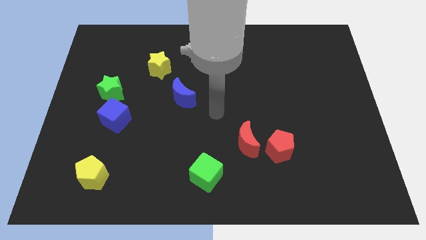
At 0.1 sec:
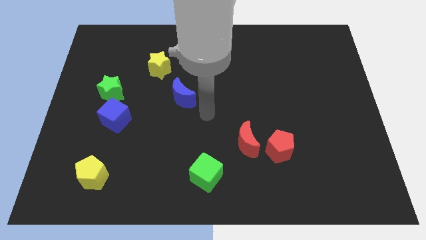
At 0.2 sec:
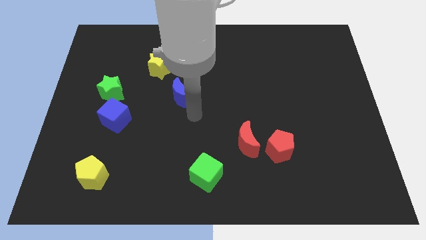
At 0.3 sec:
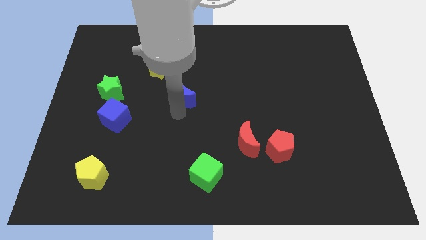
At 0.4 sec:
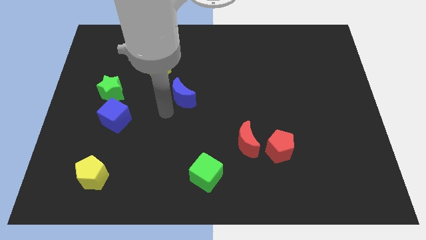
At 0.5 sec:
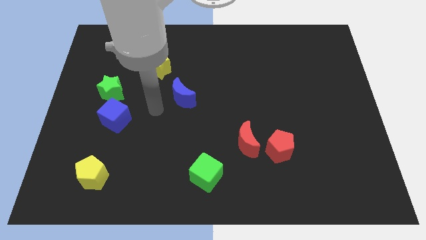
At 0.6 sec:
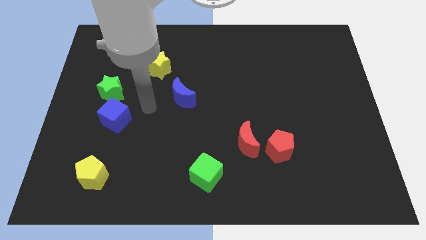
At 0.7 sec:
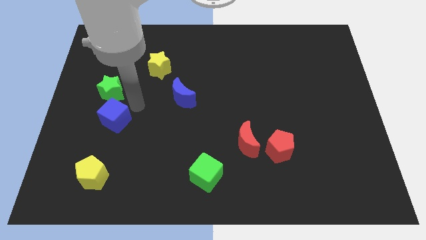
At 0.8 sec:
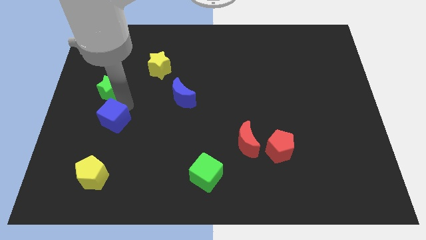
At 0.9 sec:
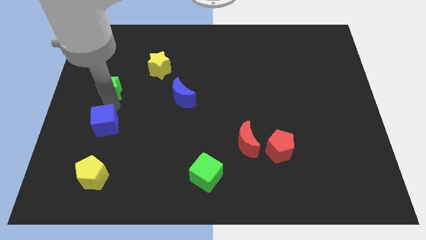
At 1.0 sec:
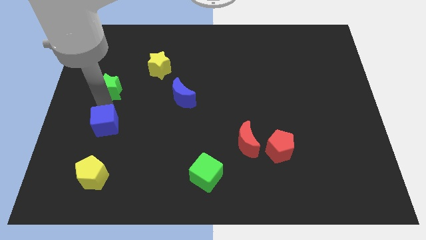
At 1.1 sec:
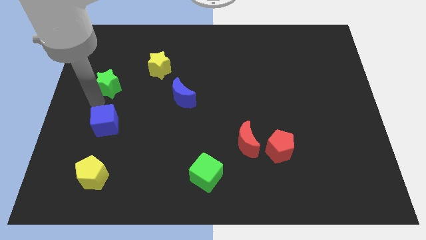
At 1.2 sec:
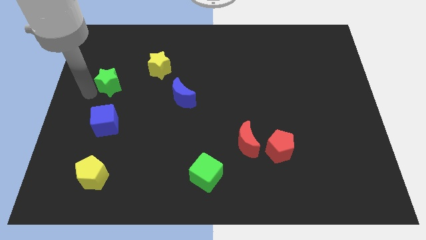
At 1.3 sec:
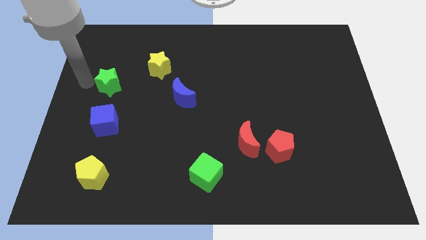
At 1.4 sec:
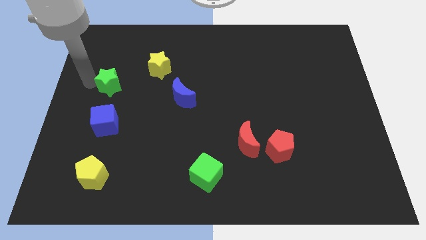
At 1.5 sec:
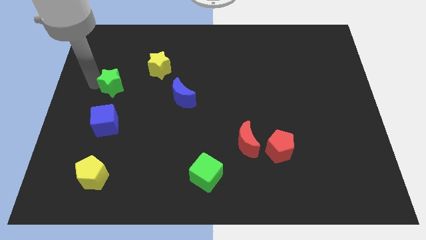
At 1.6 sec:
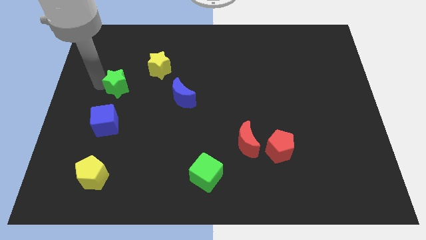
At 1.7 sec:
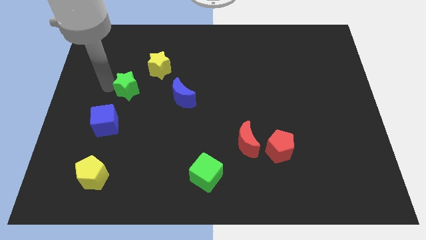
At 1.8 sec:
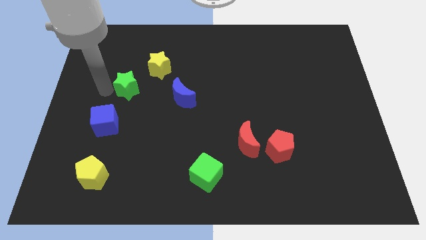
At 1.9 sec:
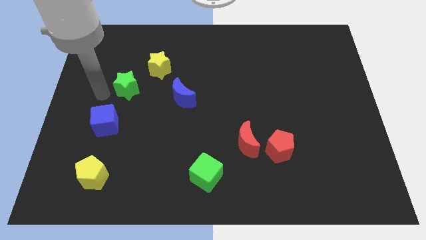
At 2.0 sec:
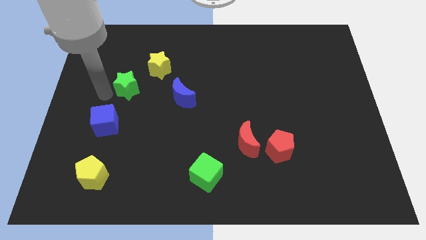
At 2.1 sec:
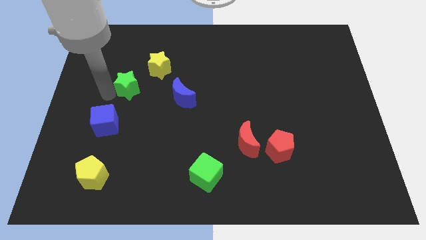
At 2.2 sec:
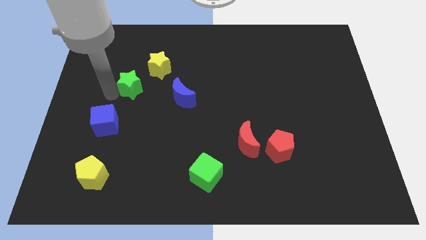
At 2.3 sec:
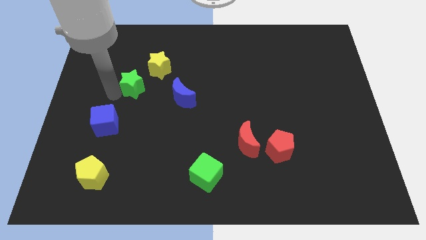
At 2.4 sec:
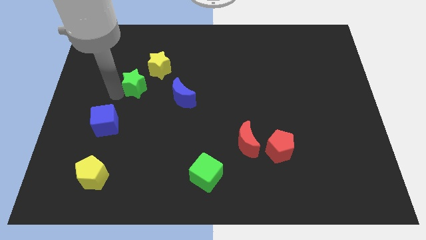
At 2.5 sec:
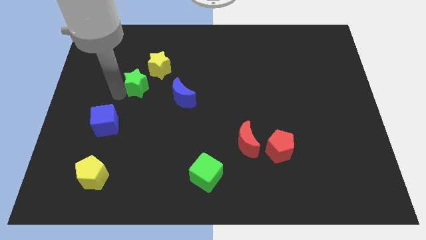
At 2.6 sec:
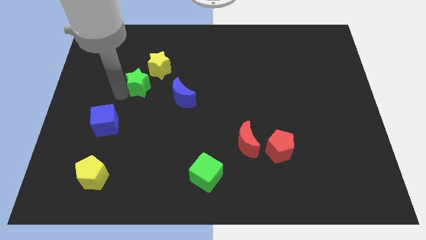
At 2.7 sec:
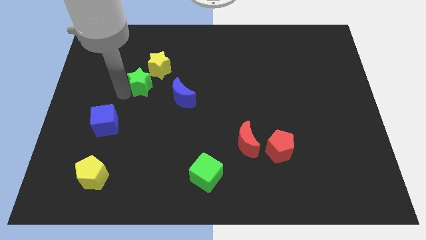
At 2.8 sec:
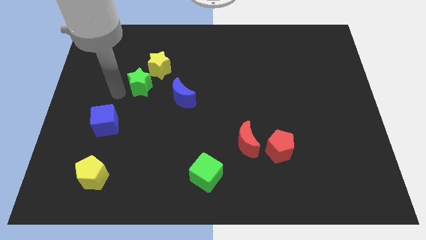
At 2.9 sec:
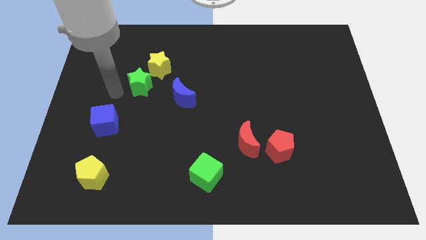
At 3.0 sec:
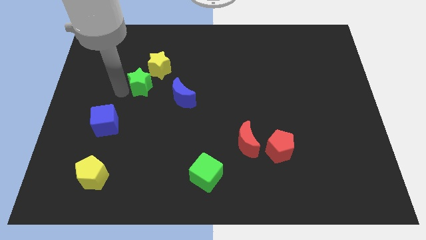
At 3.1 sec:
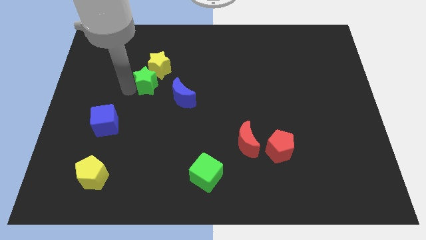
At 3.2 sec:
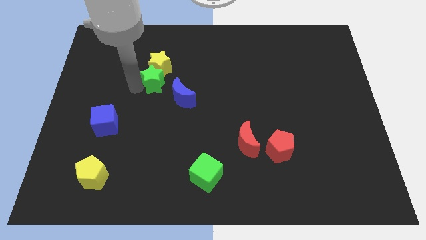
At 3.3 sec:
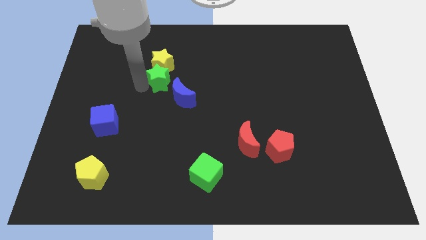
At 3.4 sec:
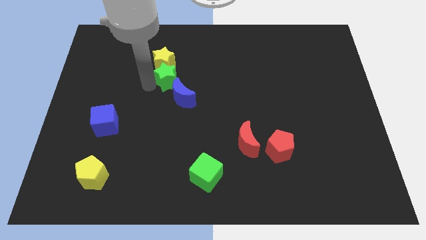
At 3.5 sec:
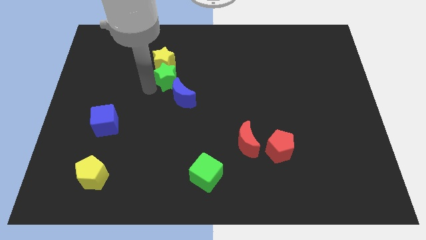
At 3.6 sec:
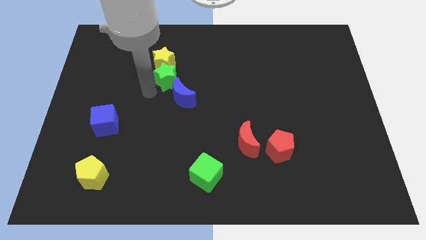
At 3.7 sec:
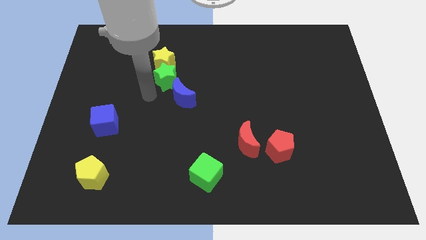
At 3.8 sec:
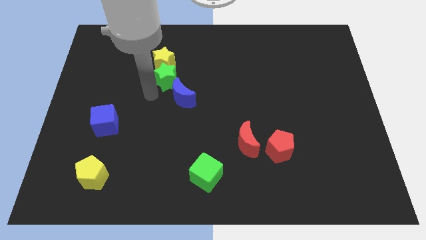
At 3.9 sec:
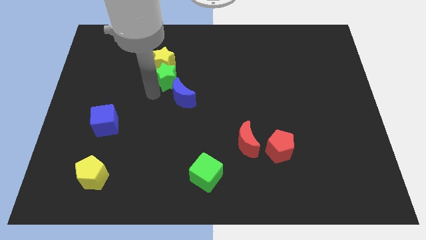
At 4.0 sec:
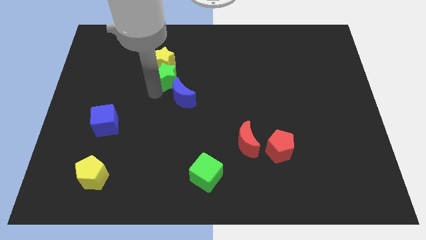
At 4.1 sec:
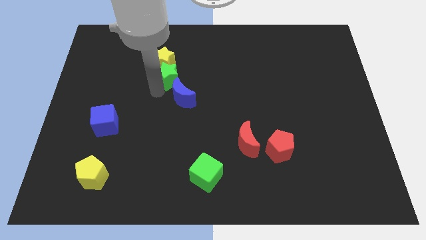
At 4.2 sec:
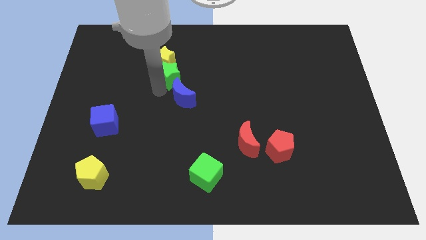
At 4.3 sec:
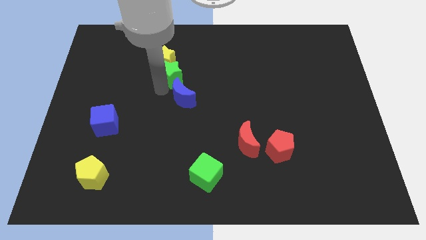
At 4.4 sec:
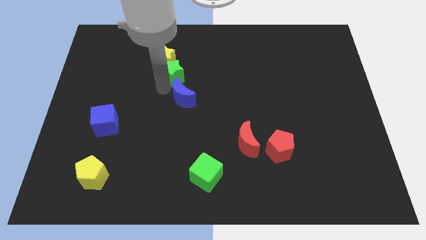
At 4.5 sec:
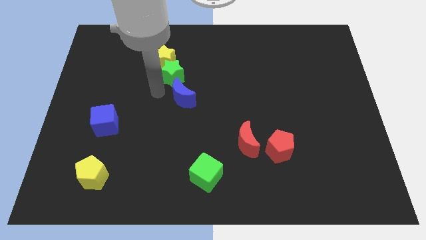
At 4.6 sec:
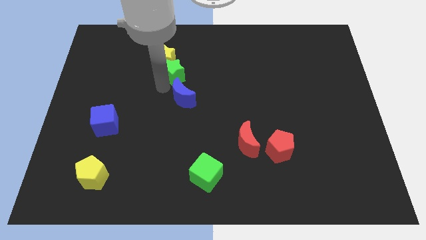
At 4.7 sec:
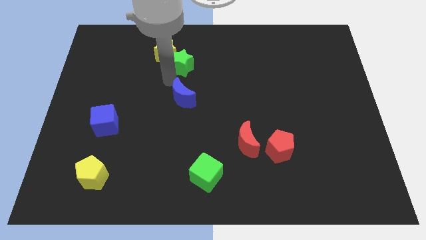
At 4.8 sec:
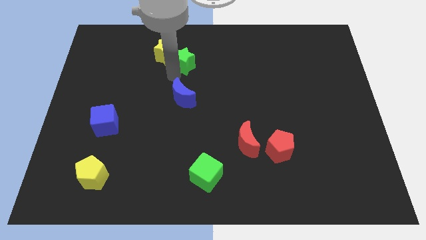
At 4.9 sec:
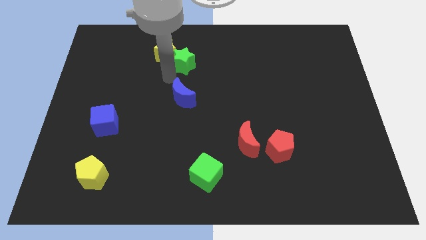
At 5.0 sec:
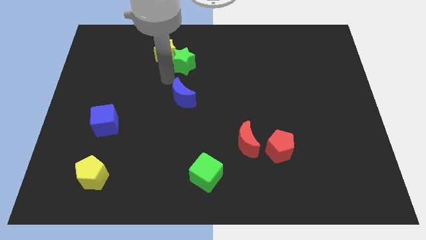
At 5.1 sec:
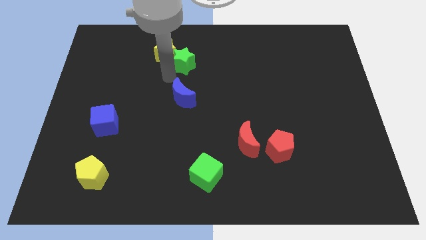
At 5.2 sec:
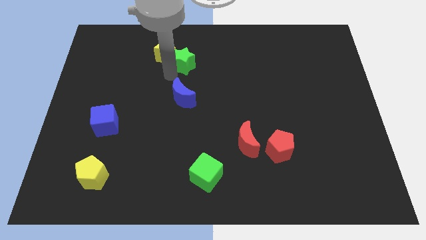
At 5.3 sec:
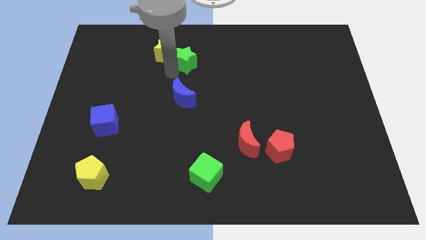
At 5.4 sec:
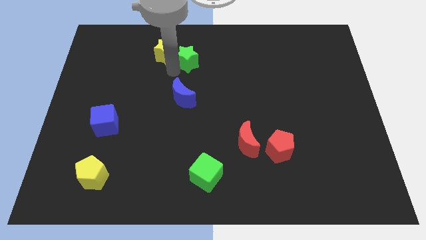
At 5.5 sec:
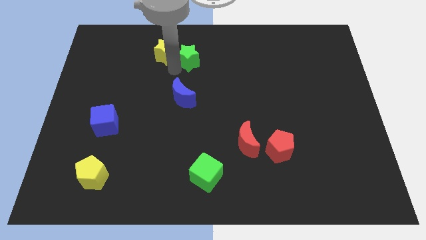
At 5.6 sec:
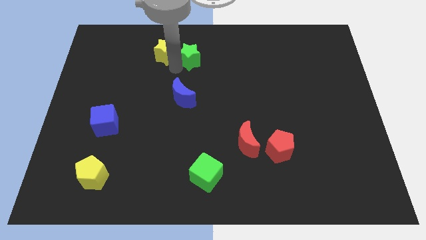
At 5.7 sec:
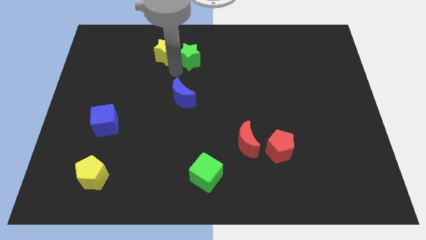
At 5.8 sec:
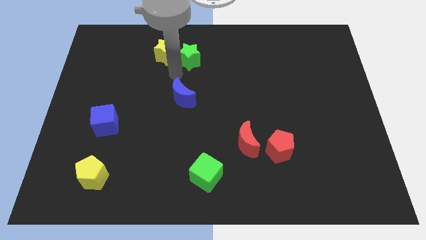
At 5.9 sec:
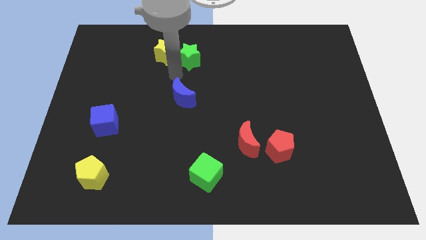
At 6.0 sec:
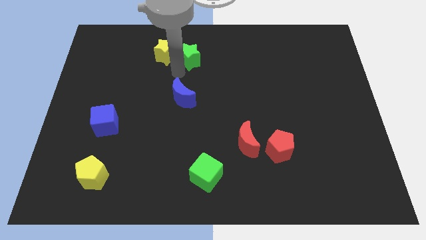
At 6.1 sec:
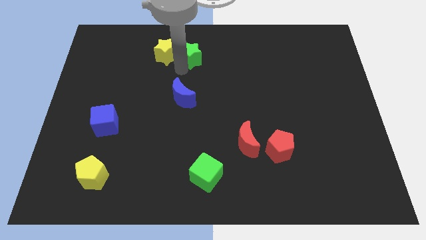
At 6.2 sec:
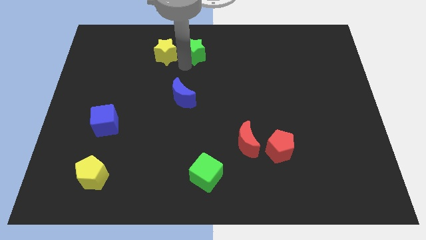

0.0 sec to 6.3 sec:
push the green star to the top side
